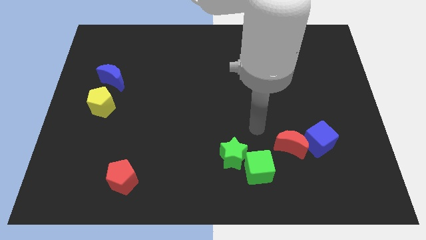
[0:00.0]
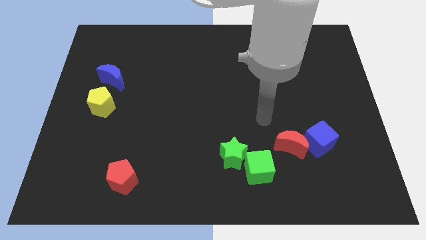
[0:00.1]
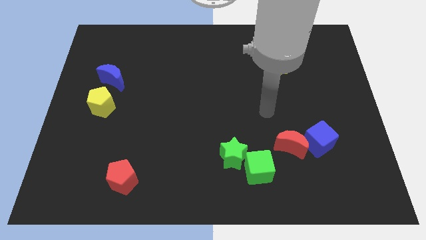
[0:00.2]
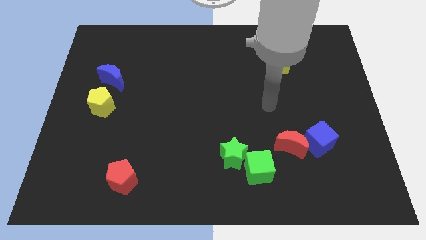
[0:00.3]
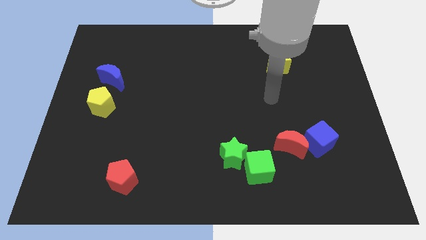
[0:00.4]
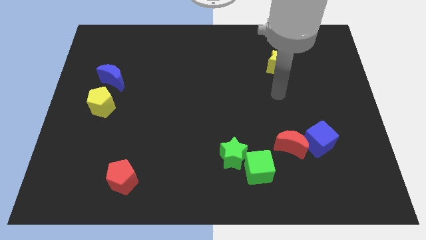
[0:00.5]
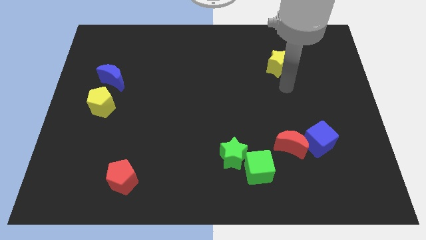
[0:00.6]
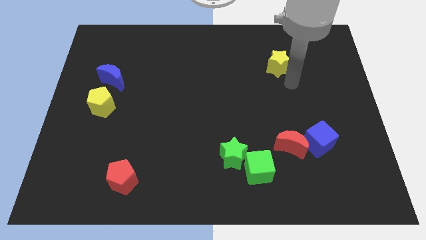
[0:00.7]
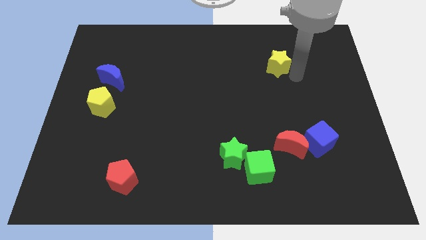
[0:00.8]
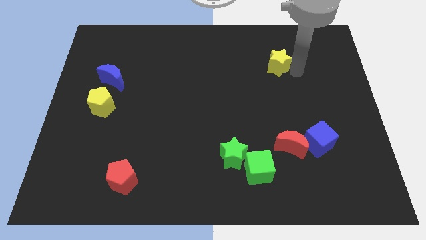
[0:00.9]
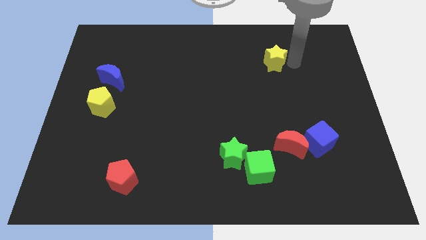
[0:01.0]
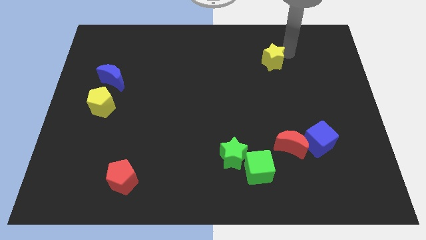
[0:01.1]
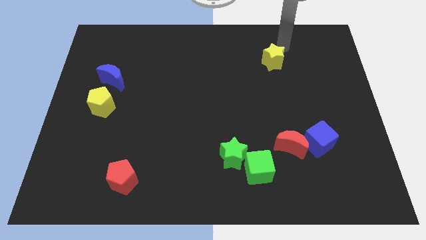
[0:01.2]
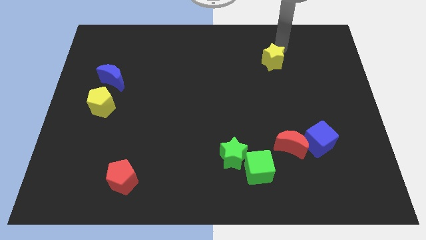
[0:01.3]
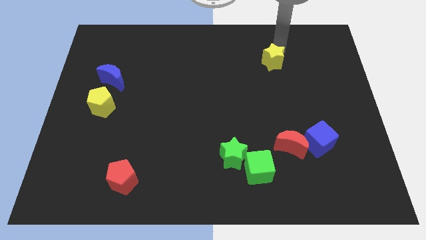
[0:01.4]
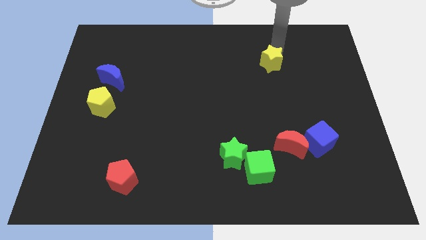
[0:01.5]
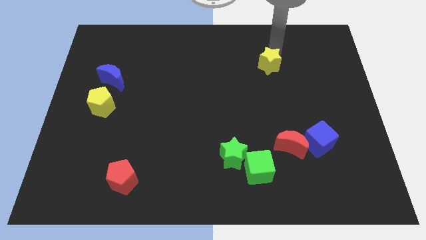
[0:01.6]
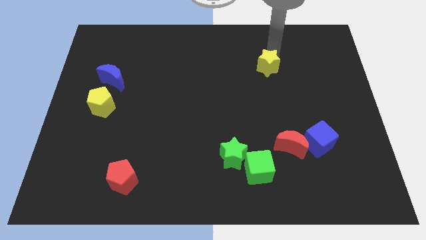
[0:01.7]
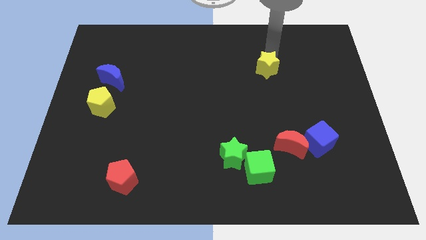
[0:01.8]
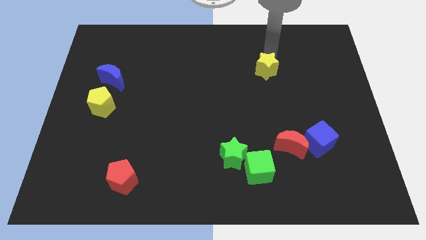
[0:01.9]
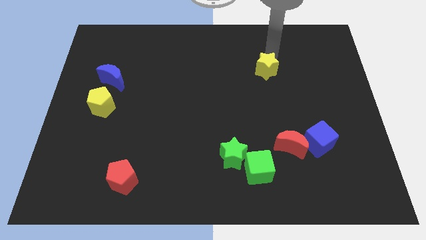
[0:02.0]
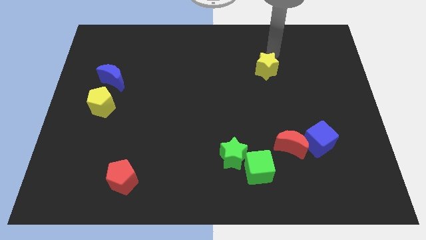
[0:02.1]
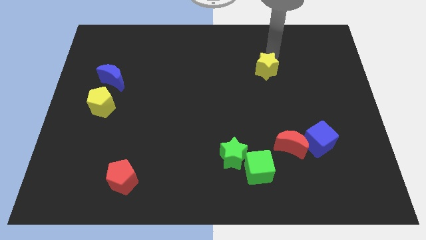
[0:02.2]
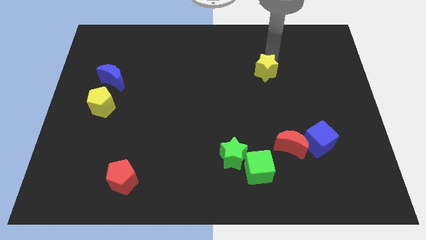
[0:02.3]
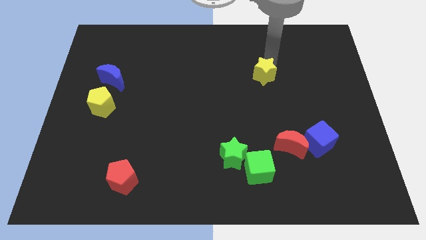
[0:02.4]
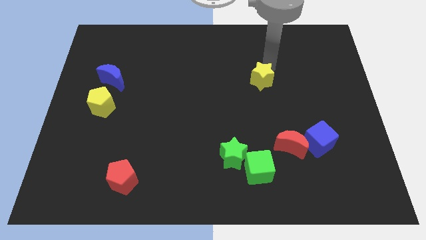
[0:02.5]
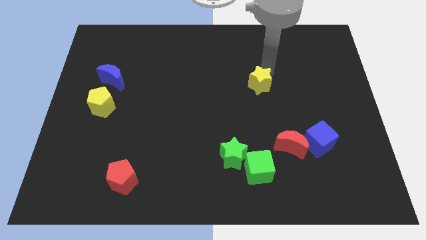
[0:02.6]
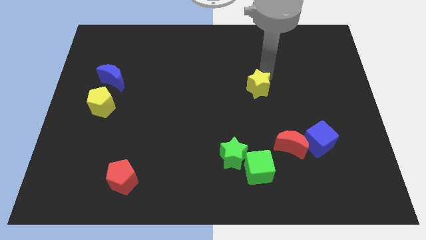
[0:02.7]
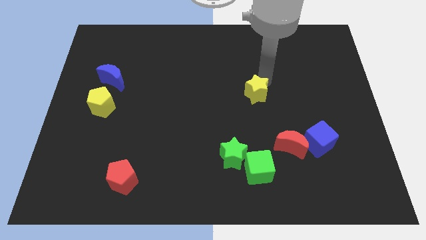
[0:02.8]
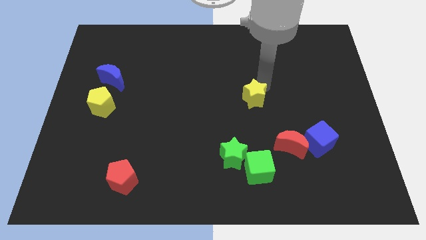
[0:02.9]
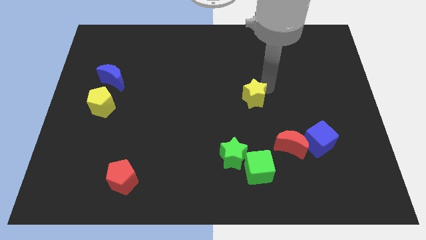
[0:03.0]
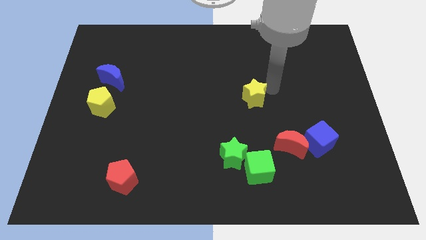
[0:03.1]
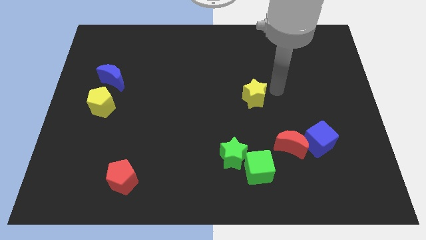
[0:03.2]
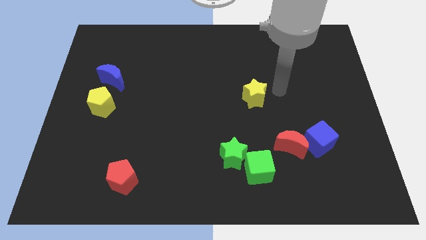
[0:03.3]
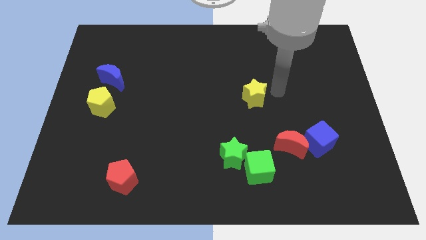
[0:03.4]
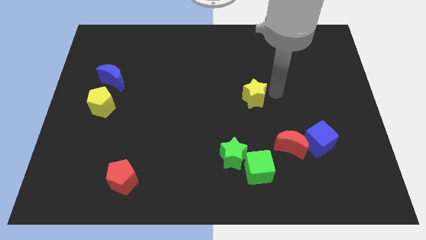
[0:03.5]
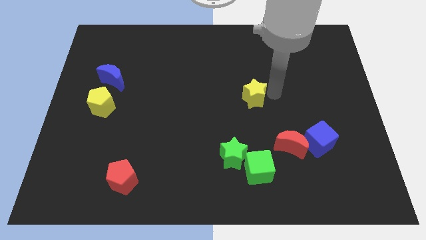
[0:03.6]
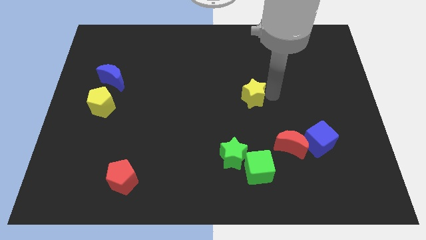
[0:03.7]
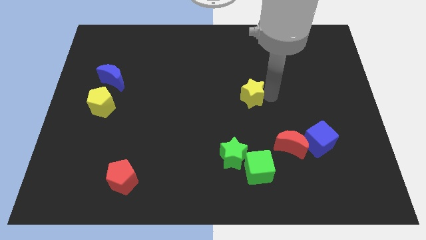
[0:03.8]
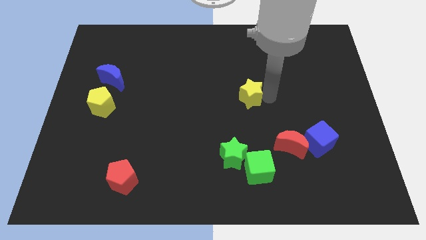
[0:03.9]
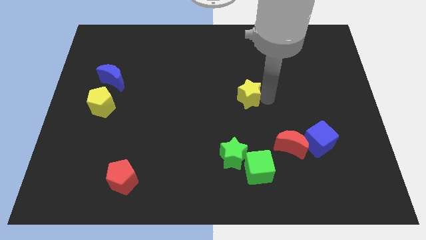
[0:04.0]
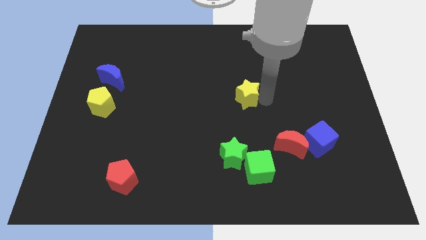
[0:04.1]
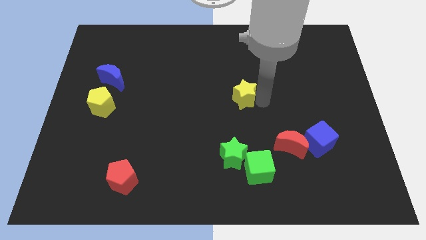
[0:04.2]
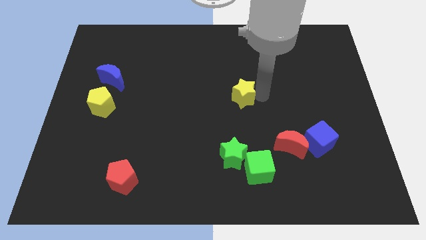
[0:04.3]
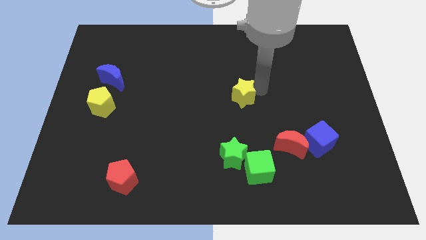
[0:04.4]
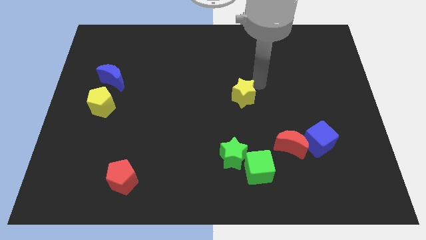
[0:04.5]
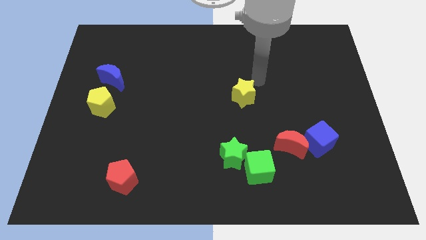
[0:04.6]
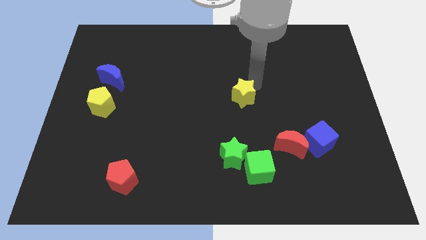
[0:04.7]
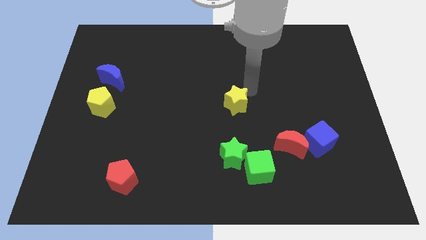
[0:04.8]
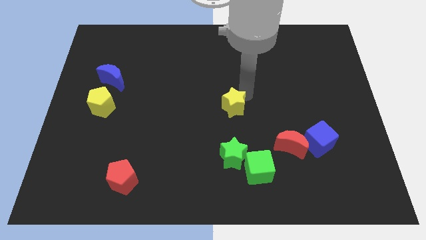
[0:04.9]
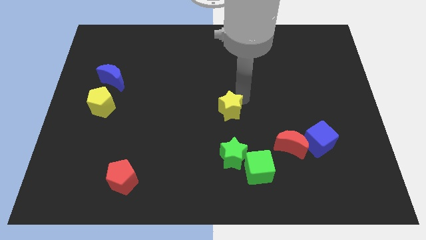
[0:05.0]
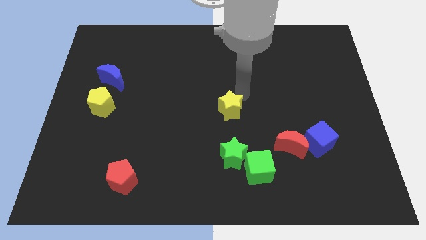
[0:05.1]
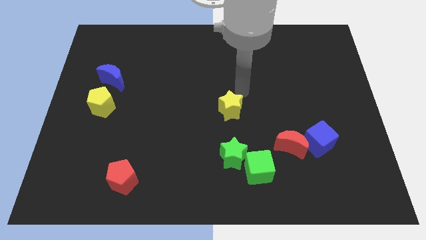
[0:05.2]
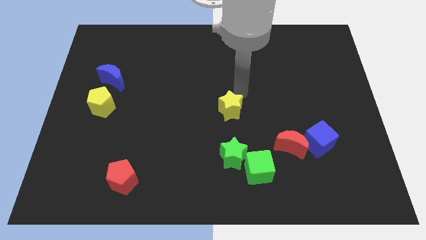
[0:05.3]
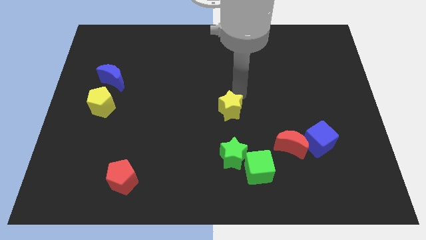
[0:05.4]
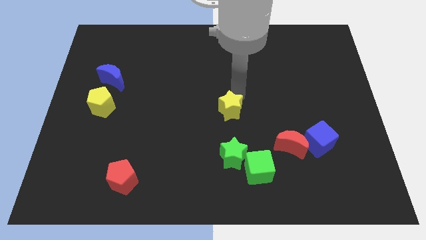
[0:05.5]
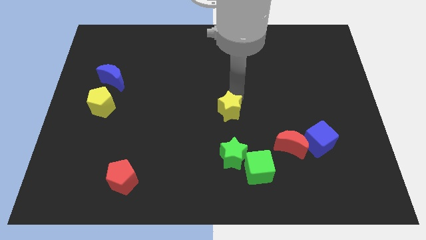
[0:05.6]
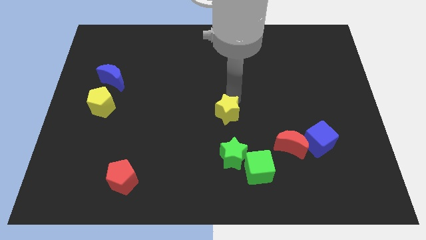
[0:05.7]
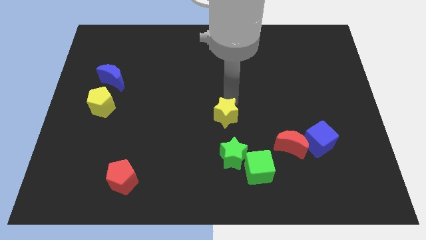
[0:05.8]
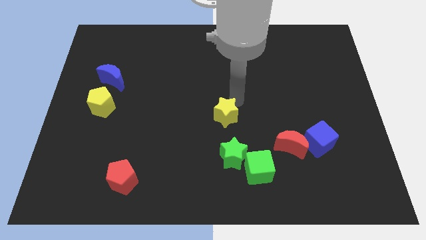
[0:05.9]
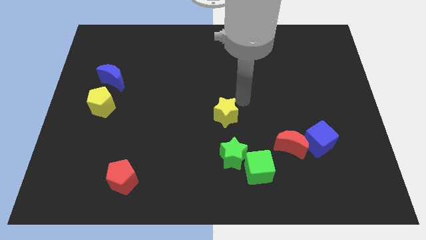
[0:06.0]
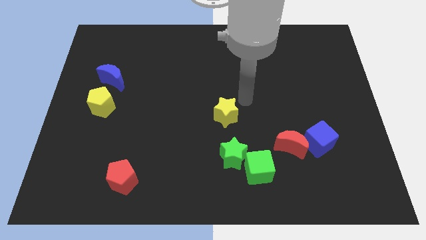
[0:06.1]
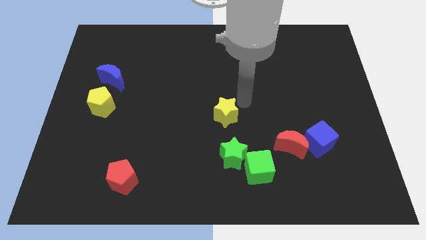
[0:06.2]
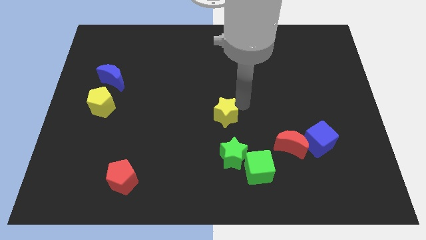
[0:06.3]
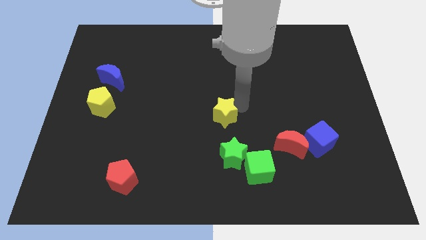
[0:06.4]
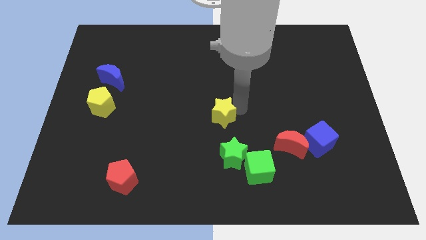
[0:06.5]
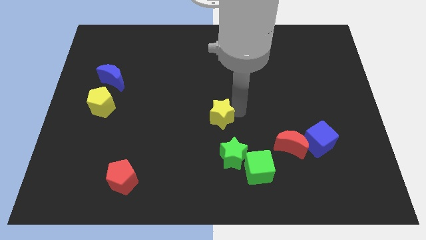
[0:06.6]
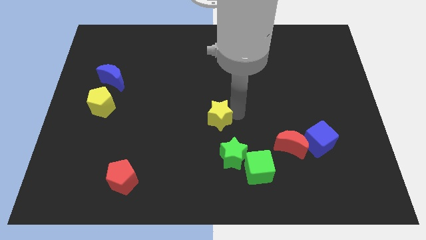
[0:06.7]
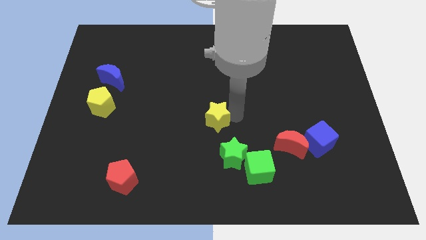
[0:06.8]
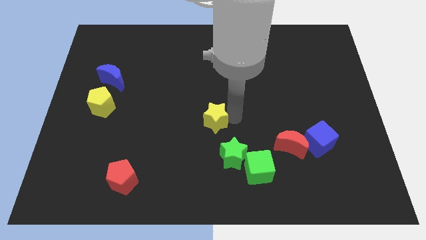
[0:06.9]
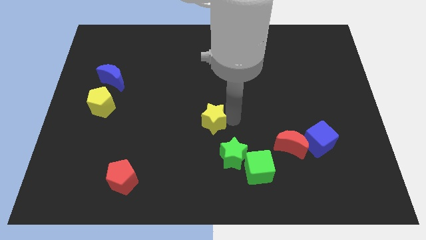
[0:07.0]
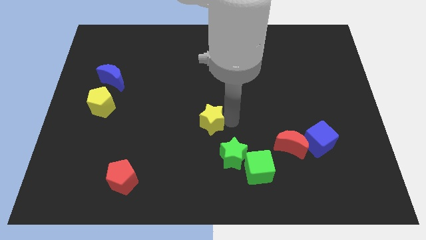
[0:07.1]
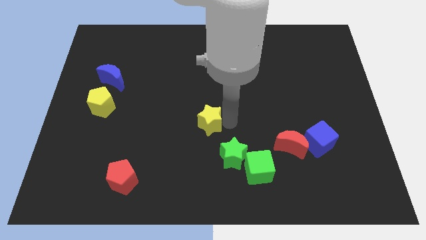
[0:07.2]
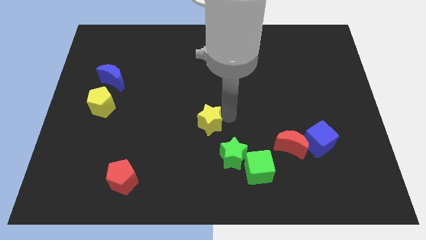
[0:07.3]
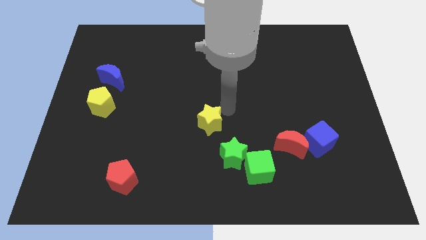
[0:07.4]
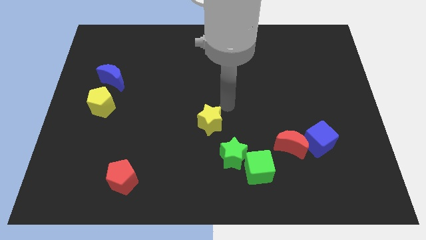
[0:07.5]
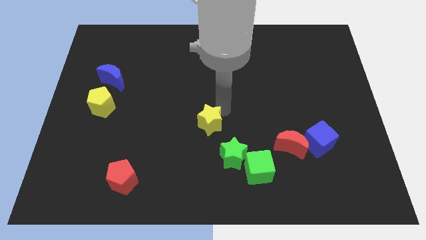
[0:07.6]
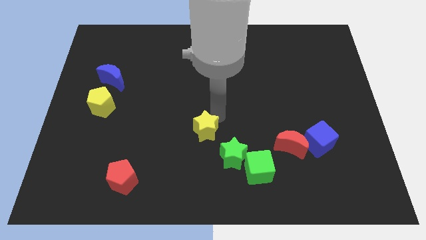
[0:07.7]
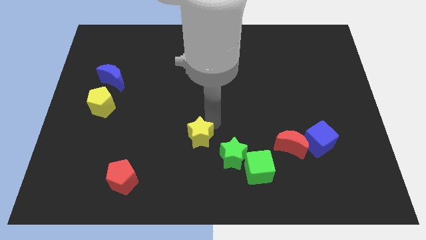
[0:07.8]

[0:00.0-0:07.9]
slide the yellow star to the left side of the green star
